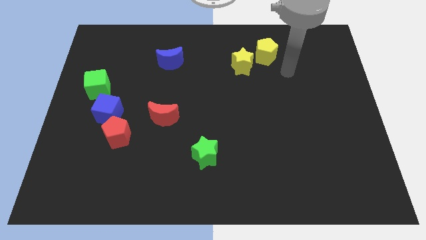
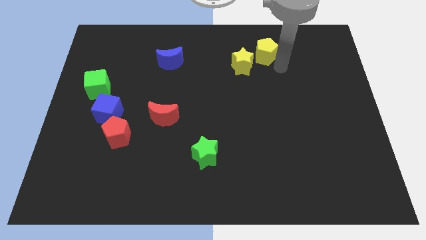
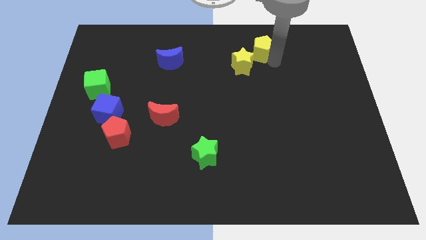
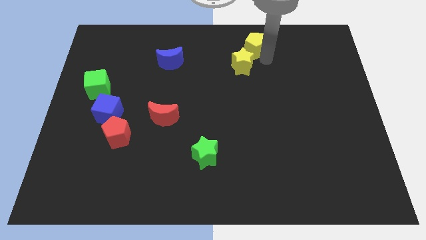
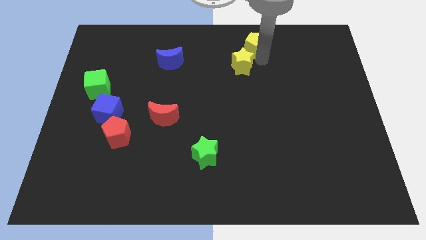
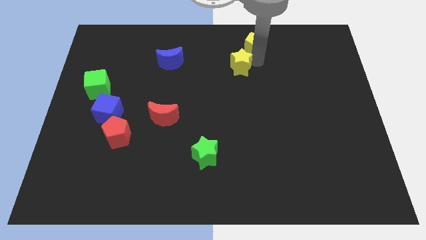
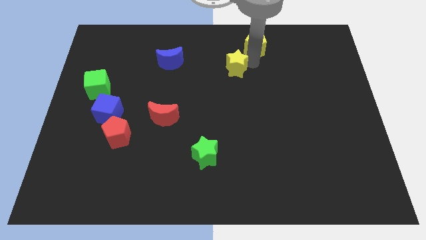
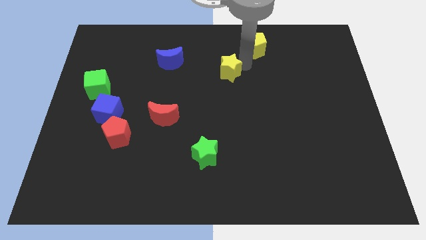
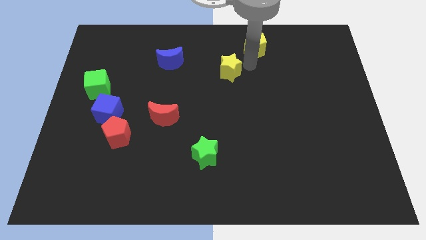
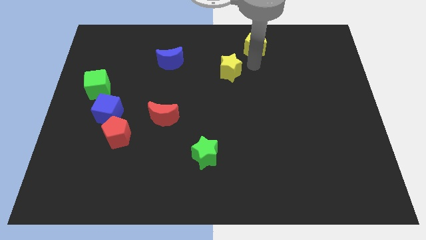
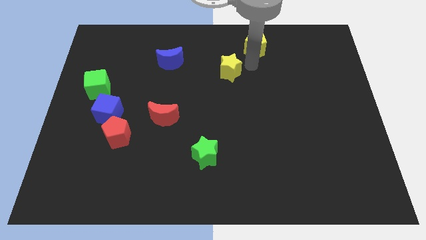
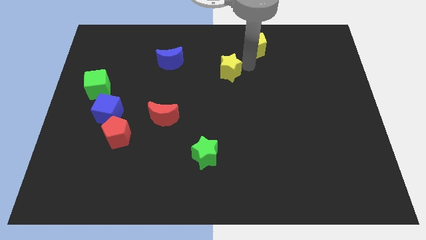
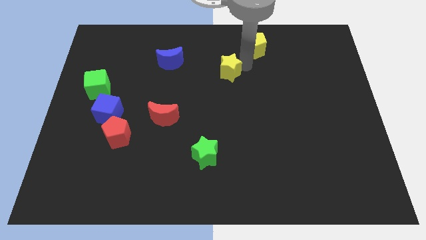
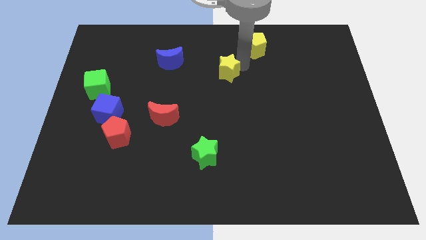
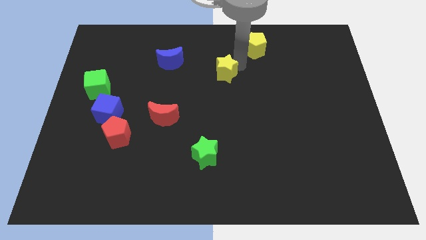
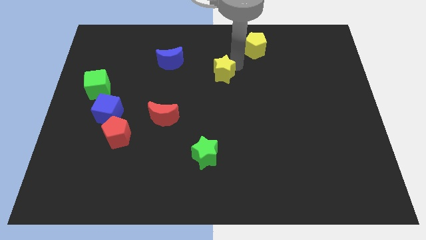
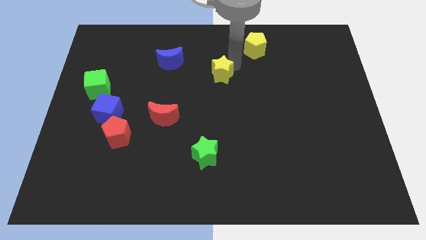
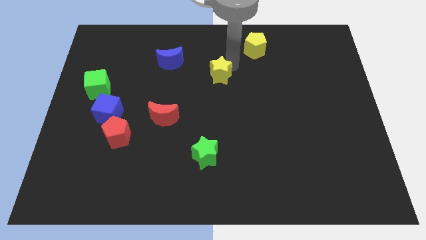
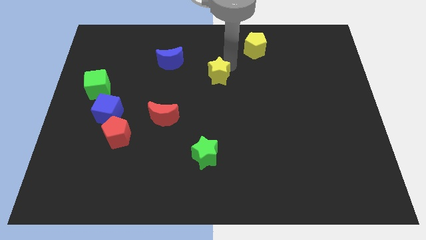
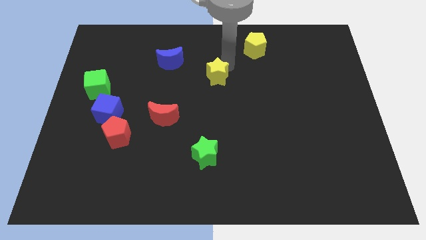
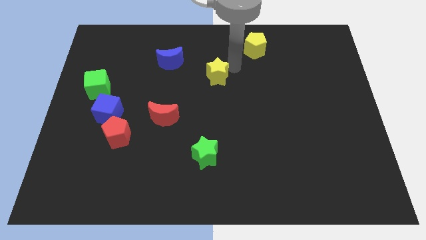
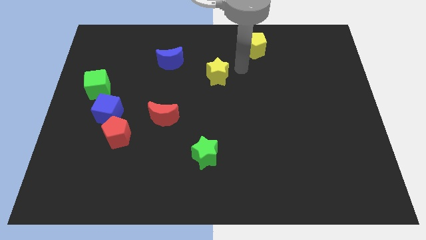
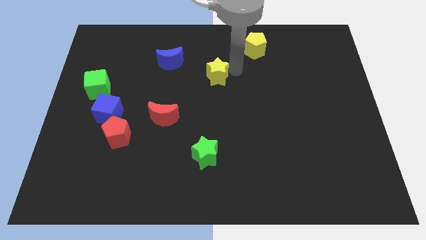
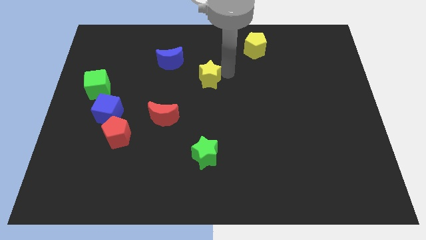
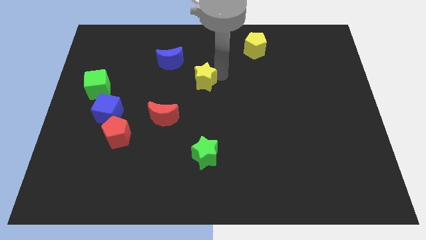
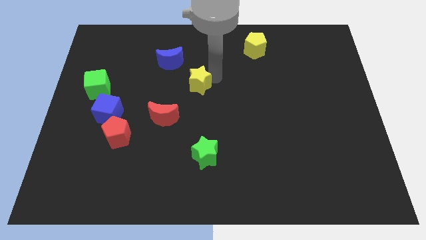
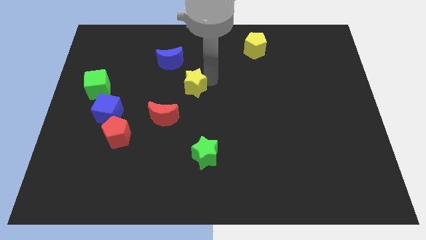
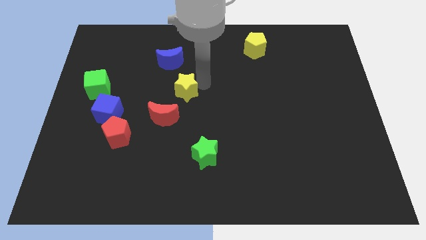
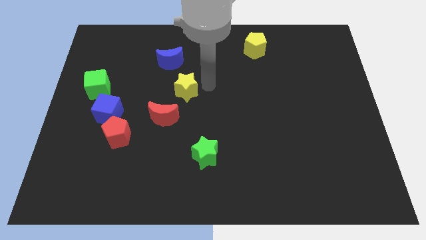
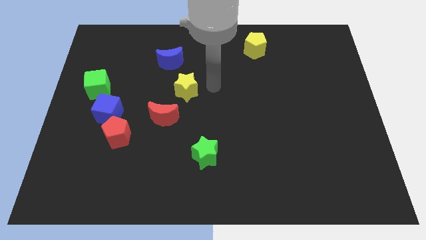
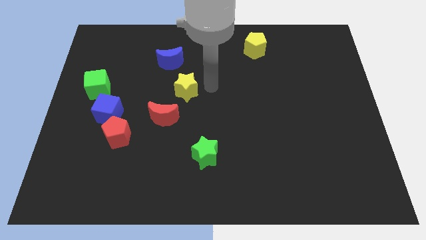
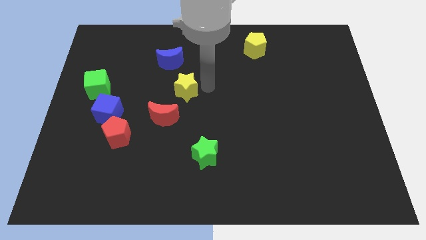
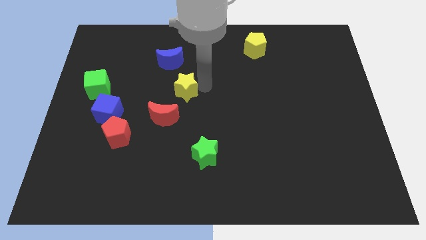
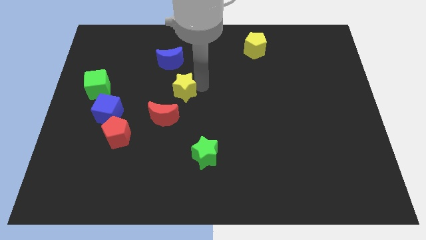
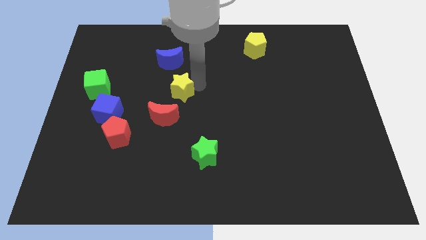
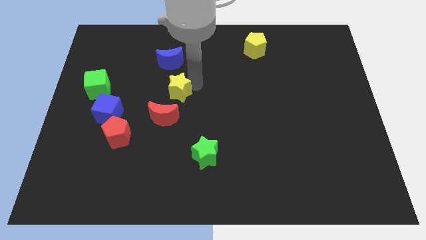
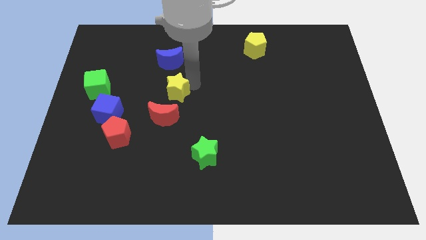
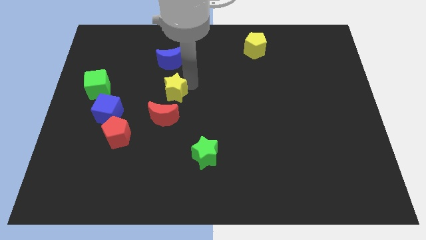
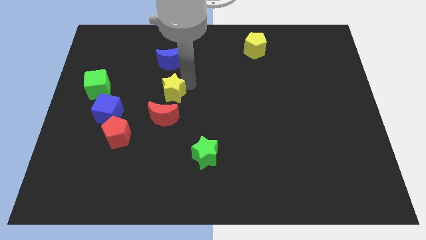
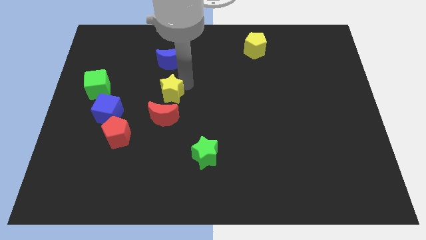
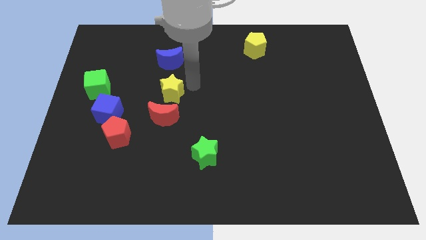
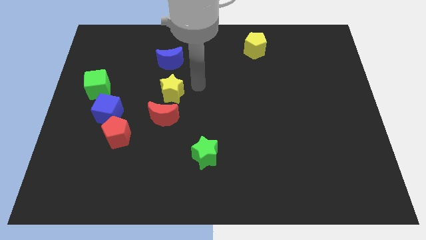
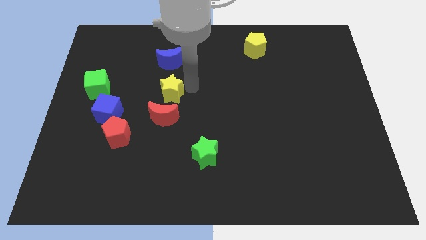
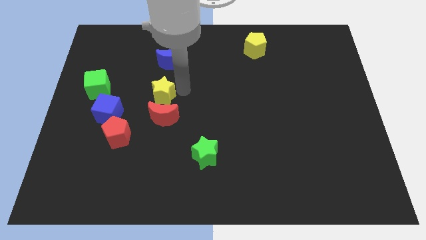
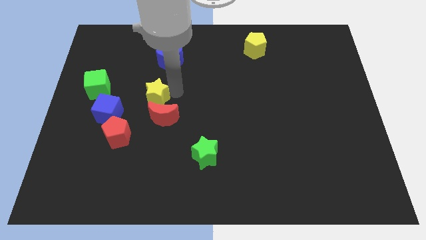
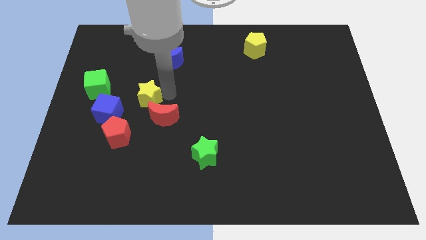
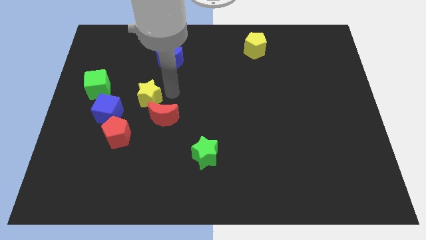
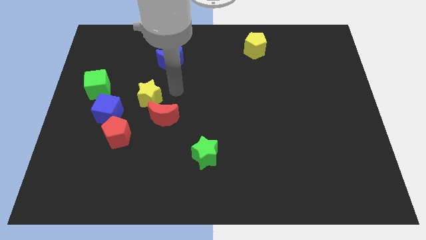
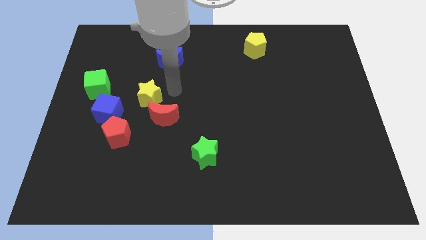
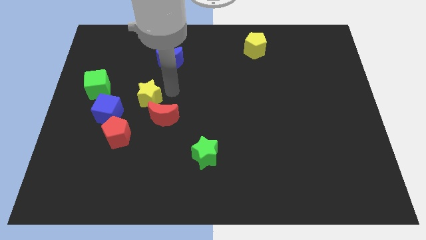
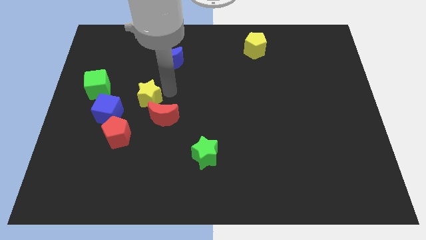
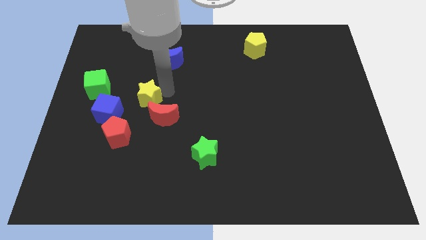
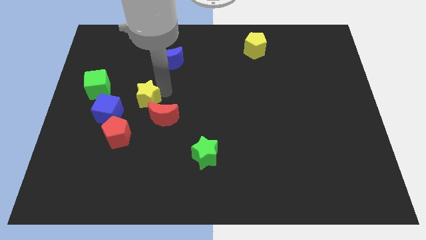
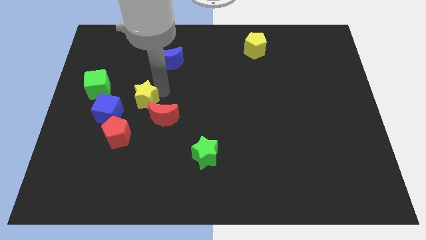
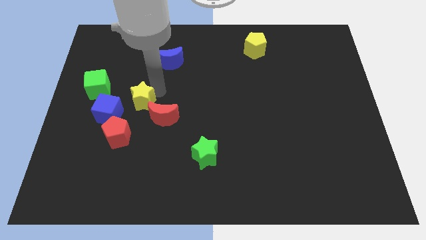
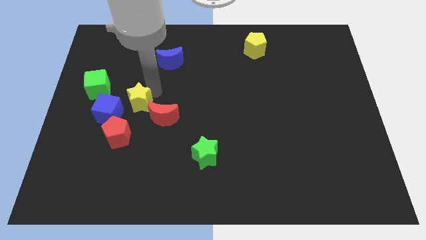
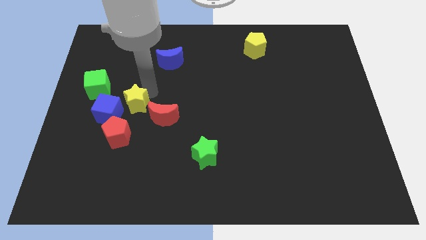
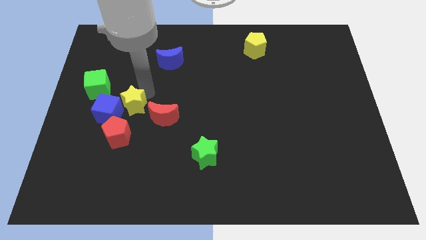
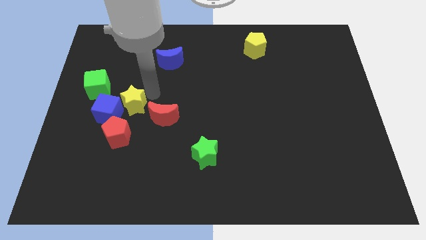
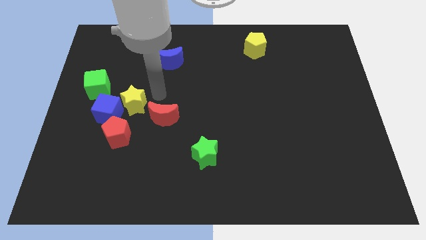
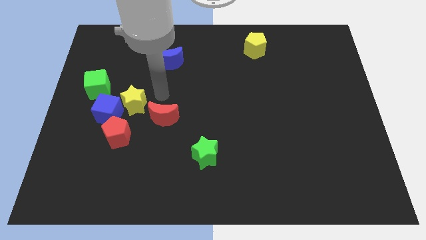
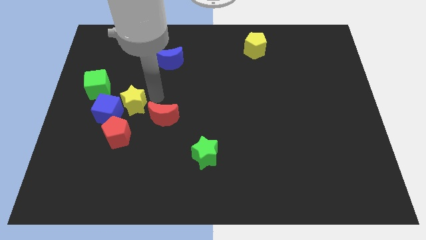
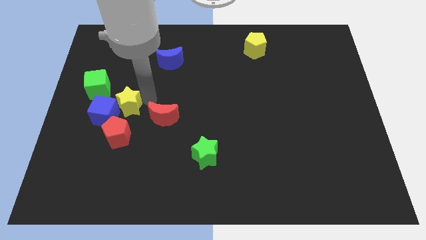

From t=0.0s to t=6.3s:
slide the yellow star close to the blue cube

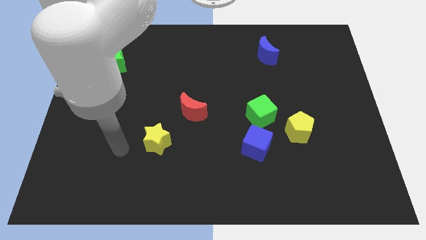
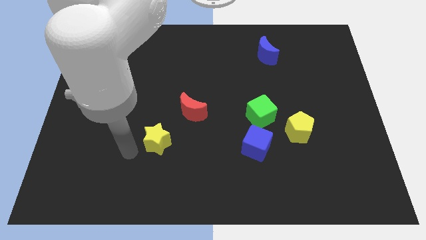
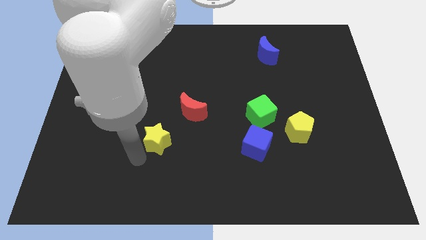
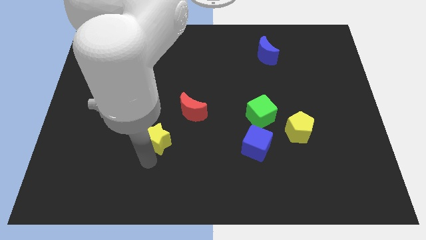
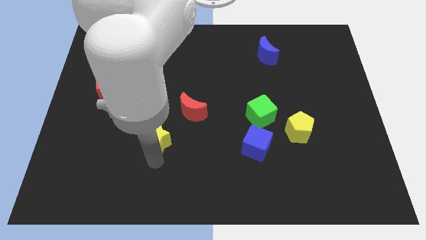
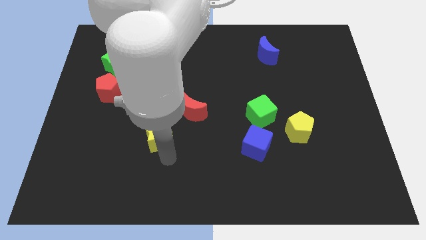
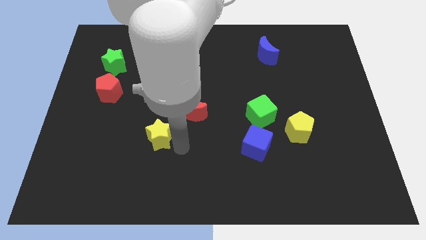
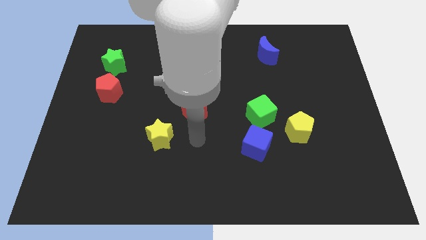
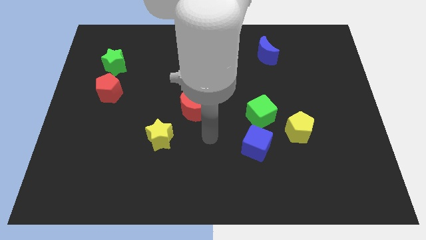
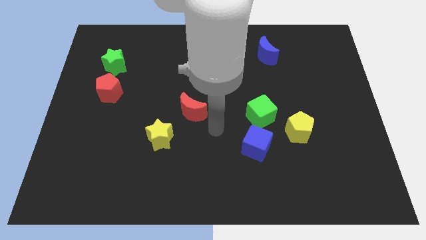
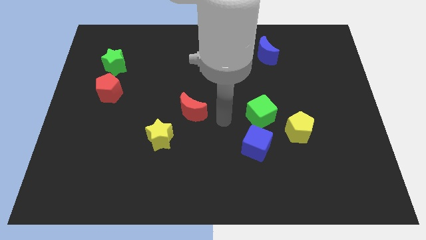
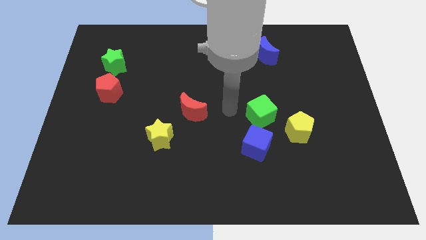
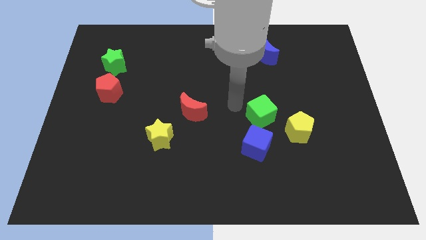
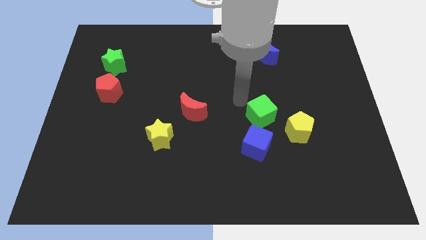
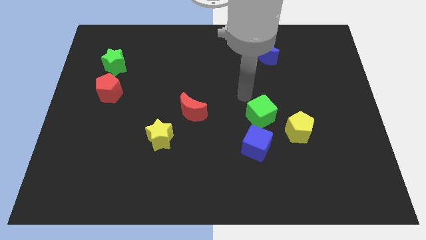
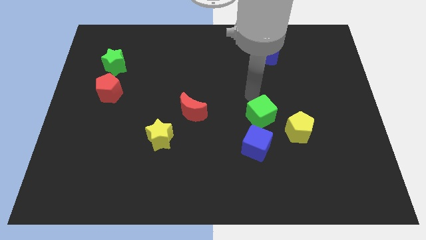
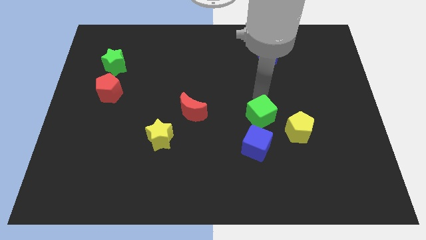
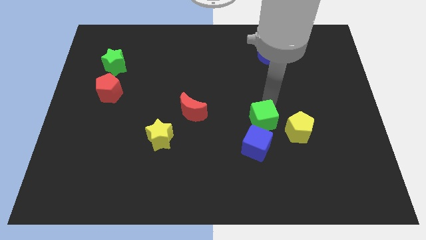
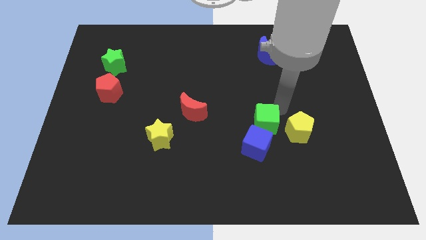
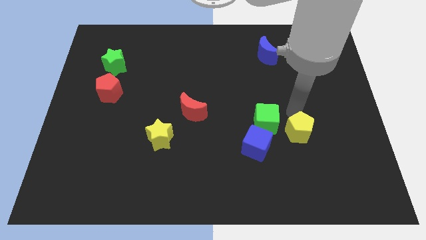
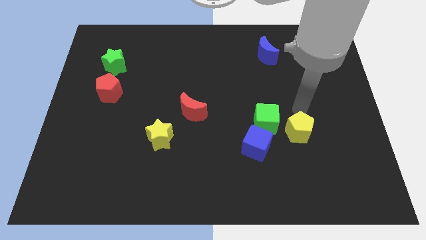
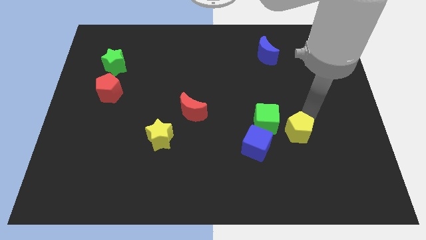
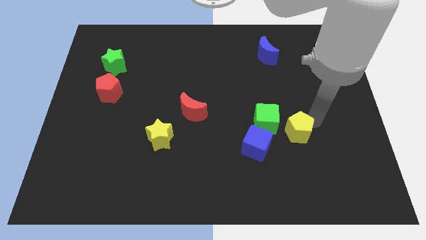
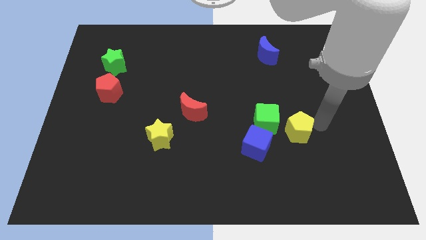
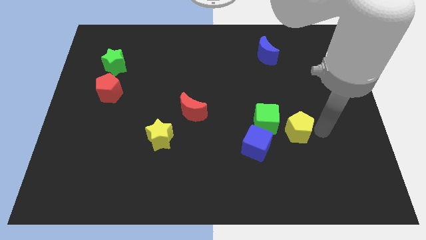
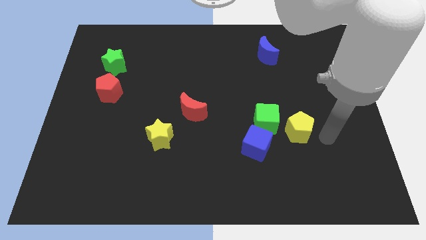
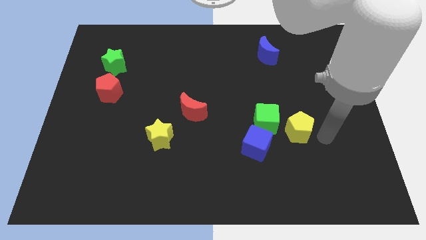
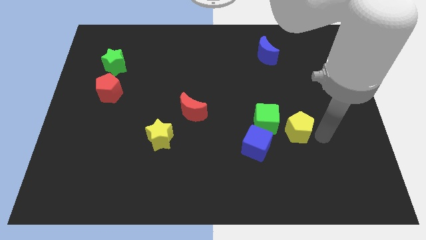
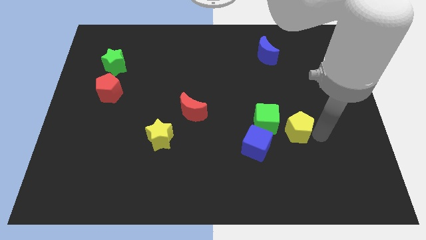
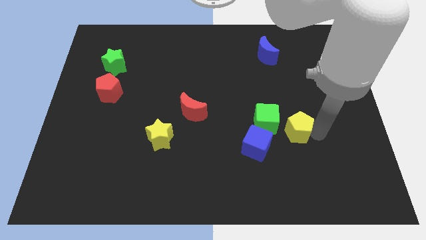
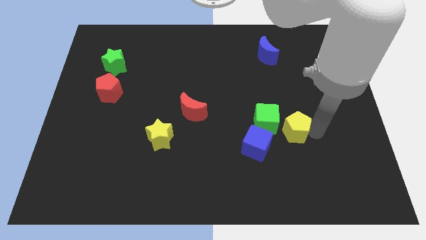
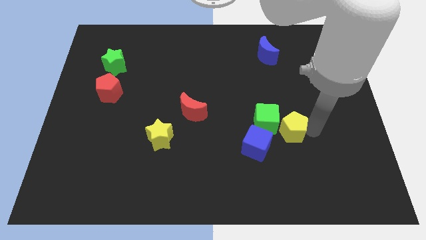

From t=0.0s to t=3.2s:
move the yellow pentagon towards the green cube
